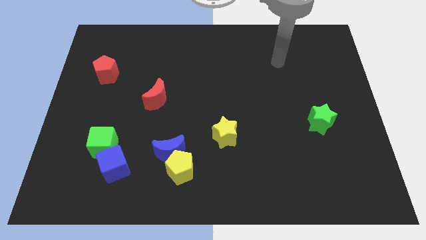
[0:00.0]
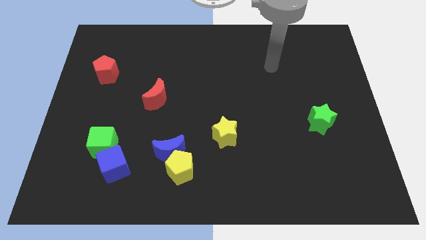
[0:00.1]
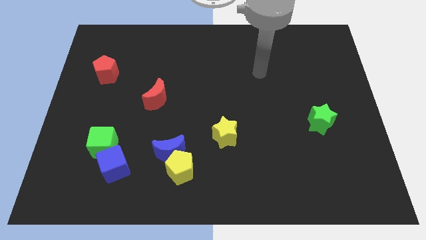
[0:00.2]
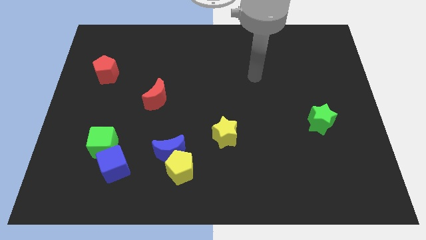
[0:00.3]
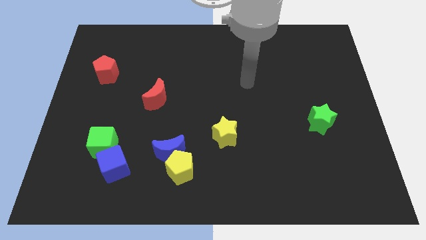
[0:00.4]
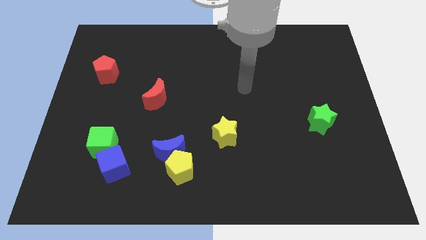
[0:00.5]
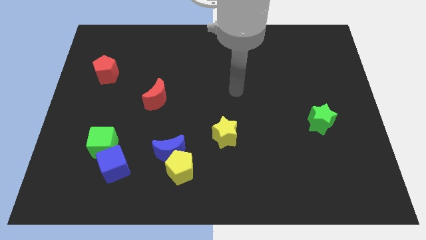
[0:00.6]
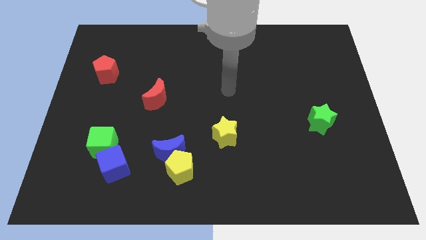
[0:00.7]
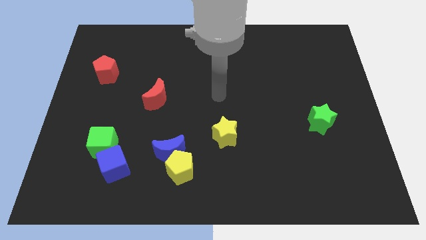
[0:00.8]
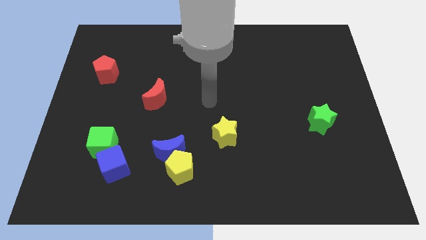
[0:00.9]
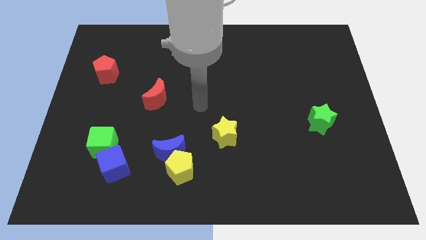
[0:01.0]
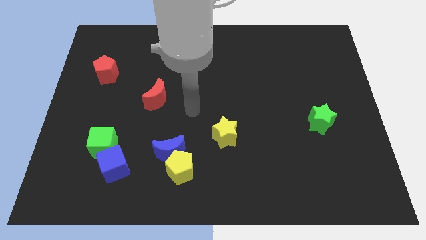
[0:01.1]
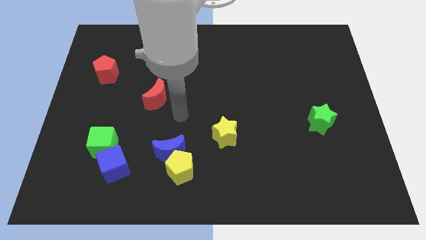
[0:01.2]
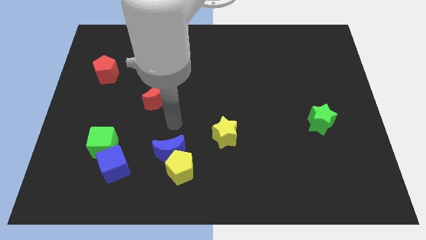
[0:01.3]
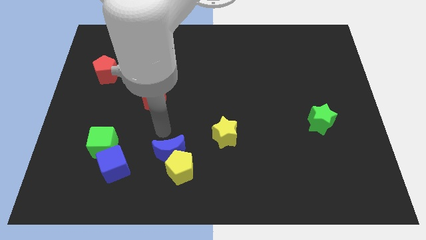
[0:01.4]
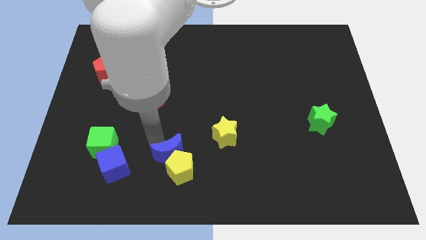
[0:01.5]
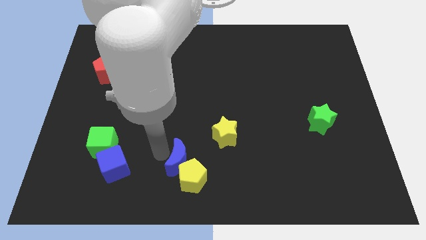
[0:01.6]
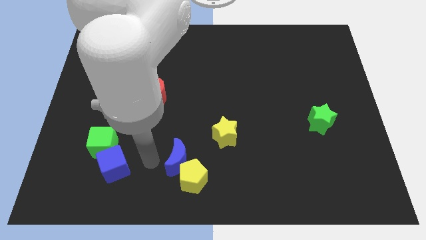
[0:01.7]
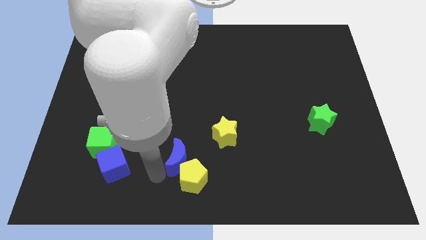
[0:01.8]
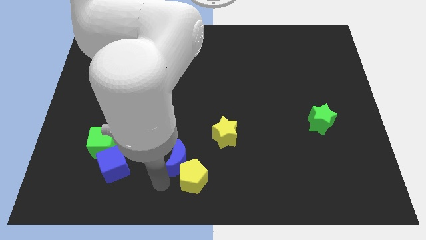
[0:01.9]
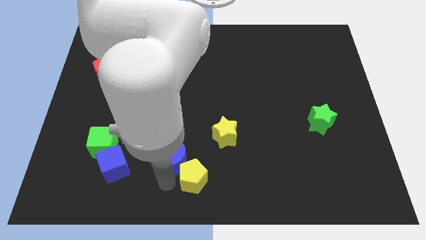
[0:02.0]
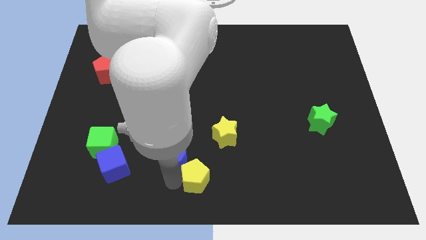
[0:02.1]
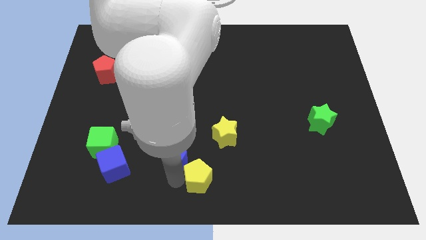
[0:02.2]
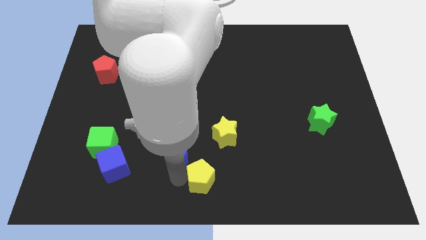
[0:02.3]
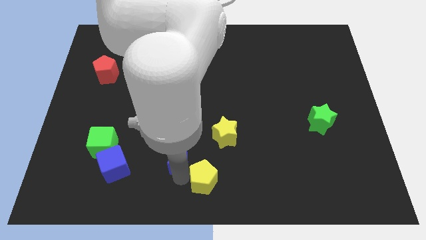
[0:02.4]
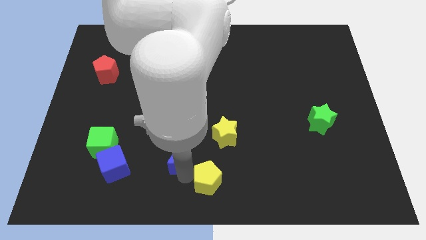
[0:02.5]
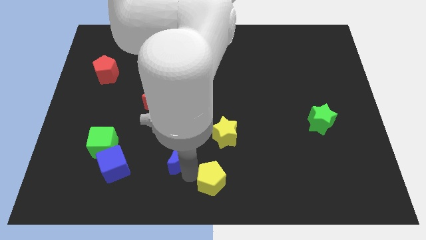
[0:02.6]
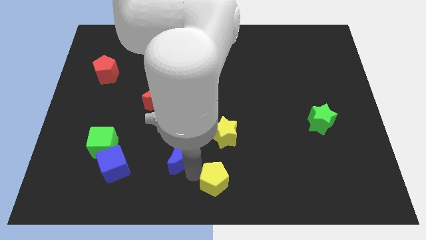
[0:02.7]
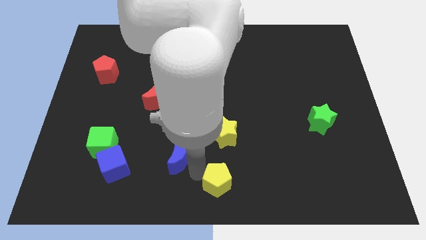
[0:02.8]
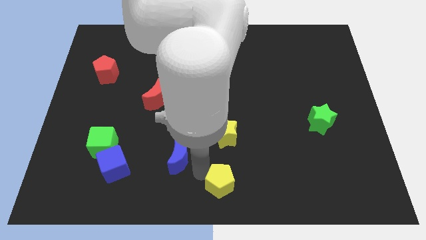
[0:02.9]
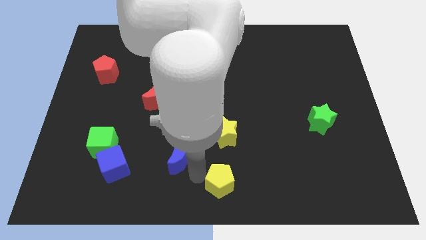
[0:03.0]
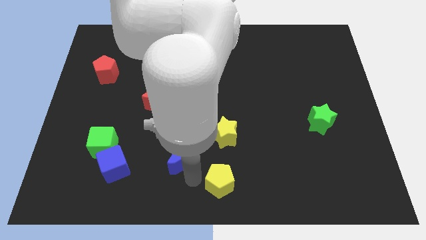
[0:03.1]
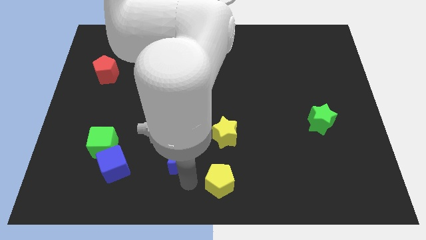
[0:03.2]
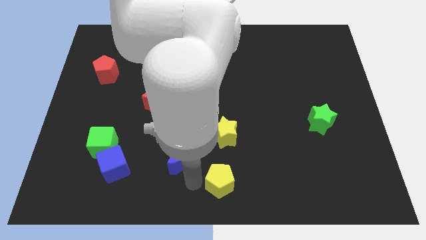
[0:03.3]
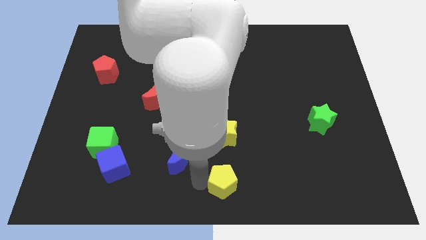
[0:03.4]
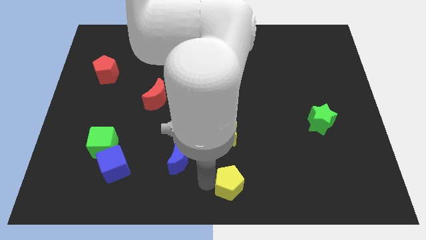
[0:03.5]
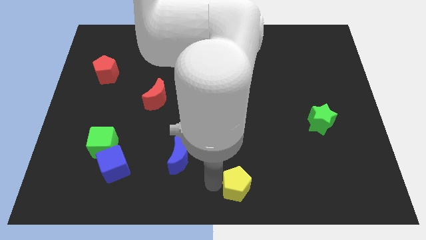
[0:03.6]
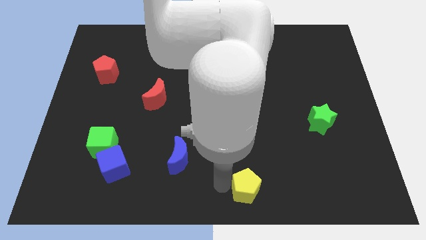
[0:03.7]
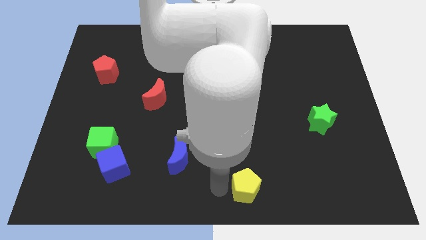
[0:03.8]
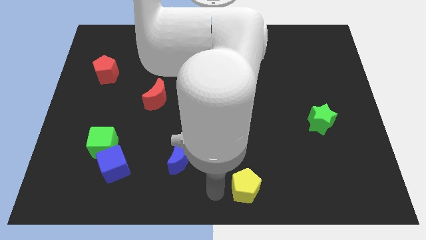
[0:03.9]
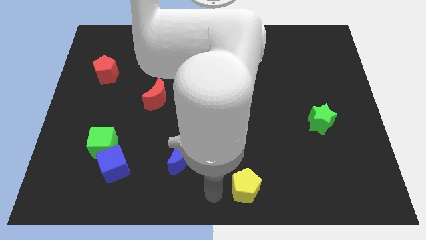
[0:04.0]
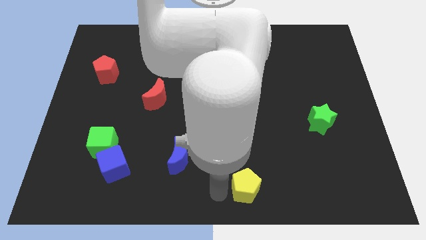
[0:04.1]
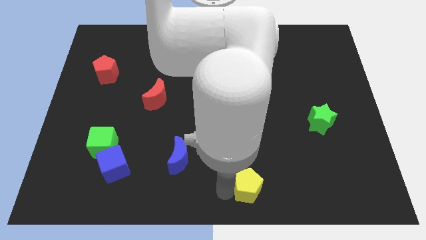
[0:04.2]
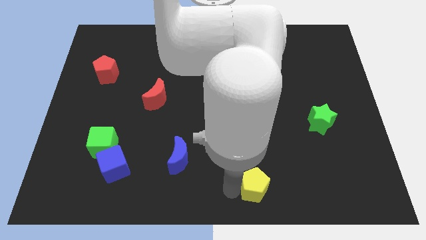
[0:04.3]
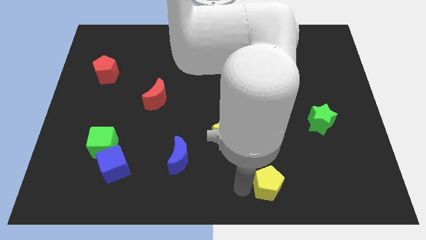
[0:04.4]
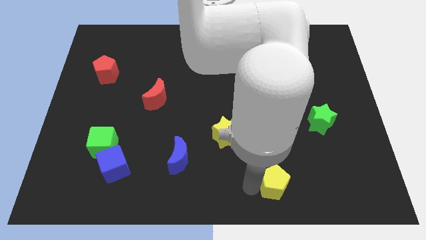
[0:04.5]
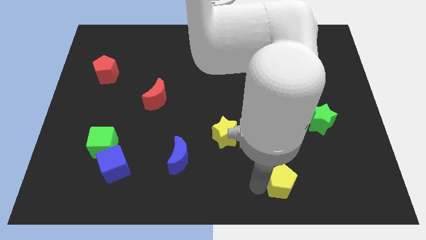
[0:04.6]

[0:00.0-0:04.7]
push the yellow pentagon right

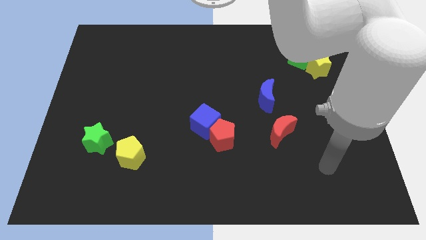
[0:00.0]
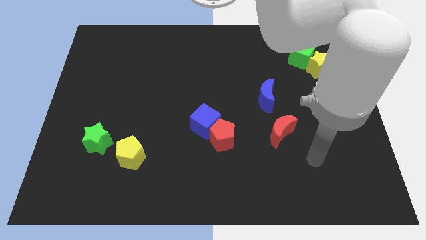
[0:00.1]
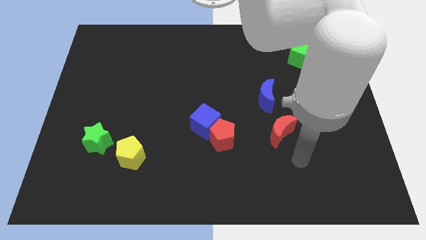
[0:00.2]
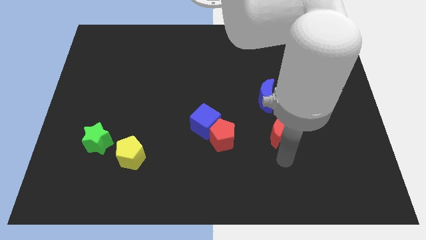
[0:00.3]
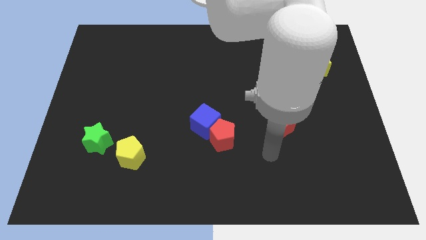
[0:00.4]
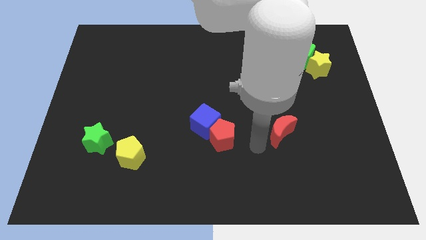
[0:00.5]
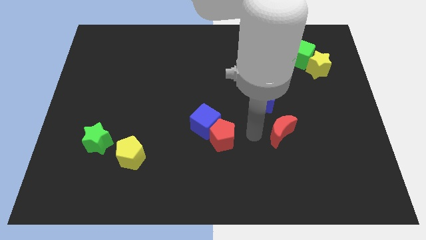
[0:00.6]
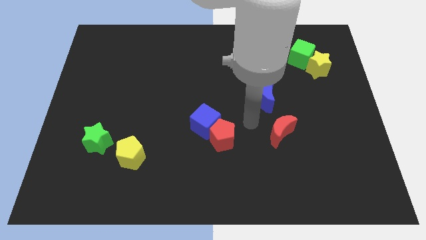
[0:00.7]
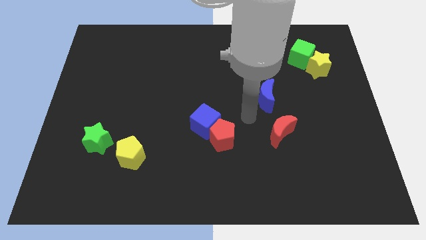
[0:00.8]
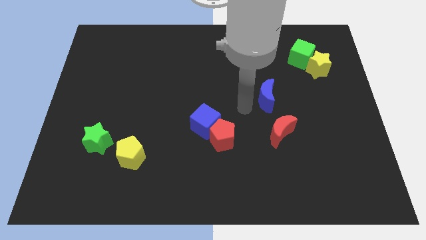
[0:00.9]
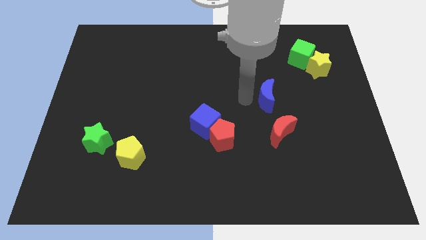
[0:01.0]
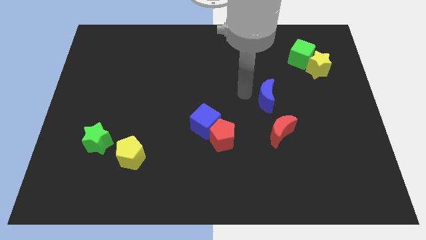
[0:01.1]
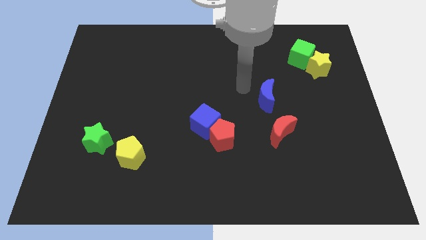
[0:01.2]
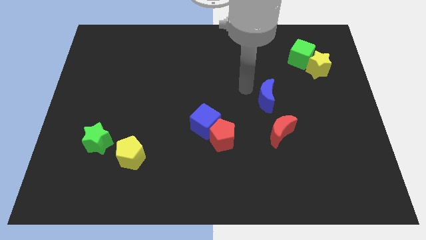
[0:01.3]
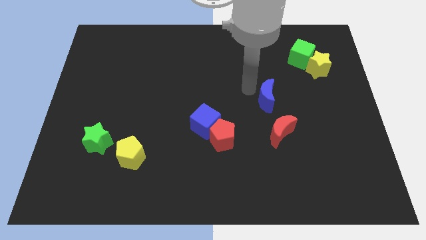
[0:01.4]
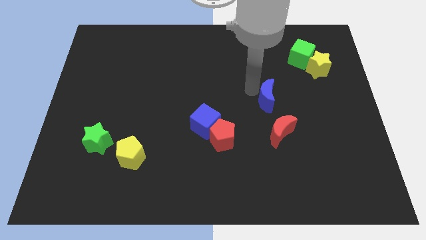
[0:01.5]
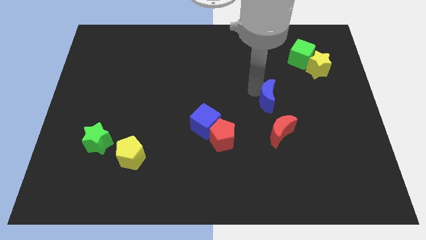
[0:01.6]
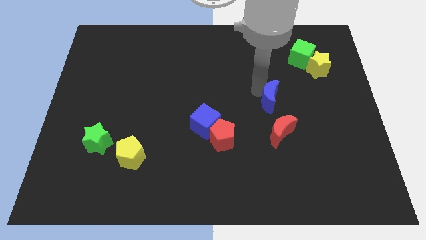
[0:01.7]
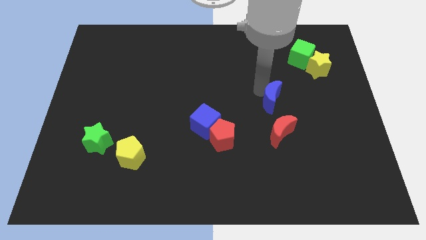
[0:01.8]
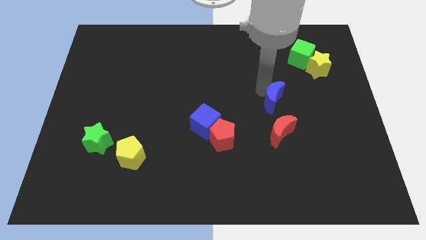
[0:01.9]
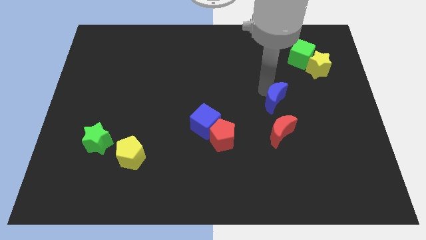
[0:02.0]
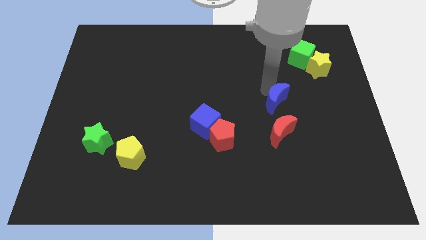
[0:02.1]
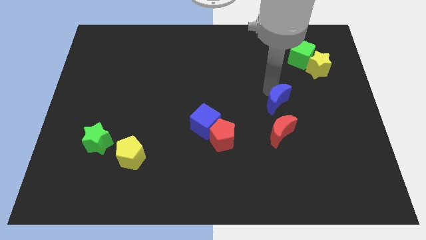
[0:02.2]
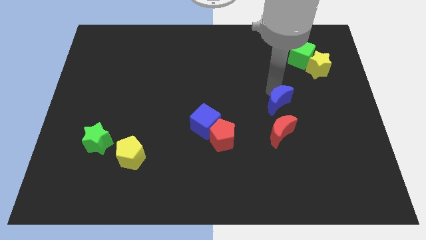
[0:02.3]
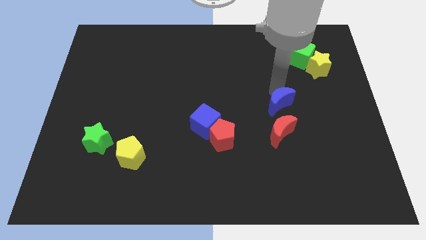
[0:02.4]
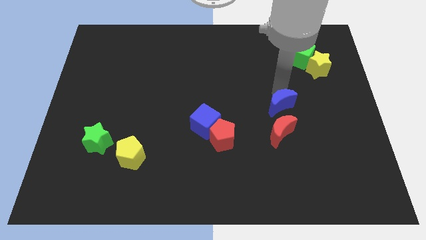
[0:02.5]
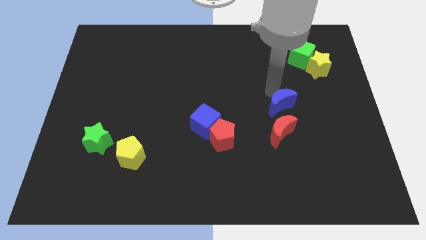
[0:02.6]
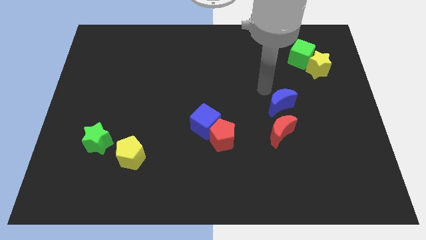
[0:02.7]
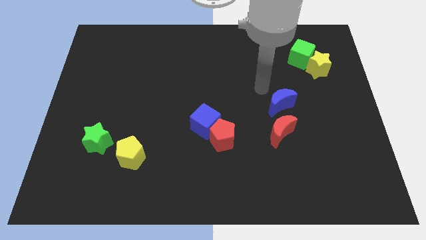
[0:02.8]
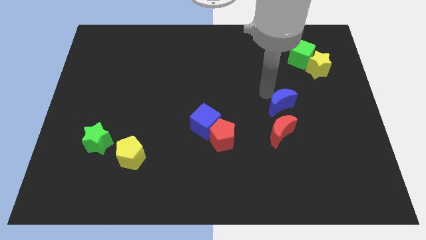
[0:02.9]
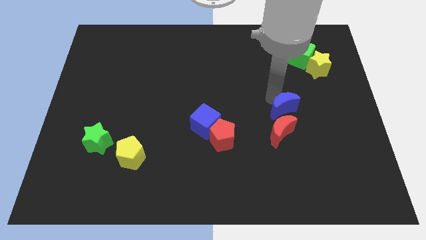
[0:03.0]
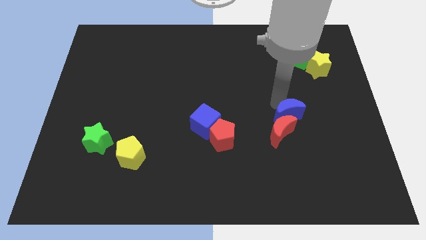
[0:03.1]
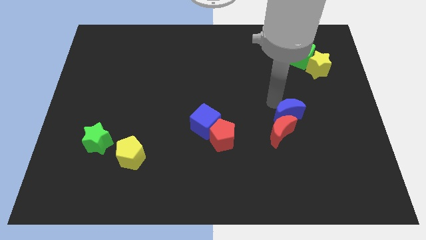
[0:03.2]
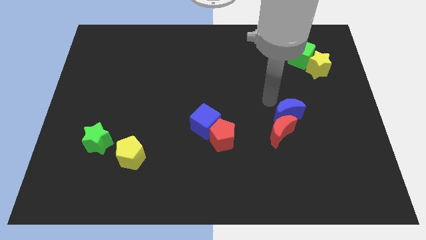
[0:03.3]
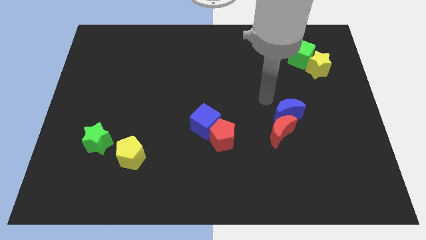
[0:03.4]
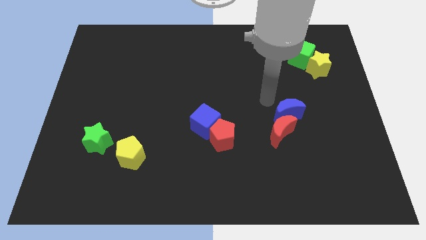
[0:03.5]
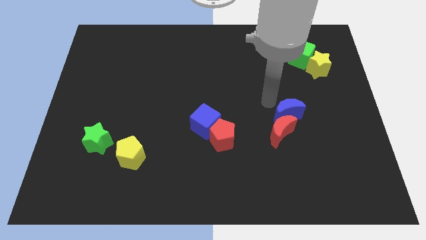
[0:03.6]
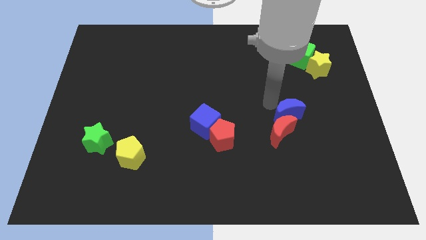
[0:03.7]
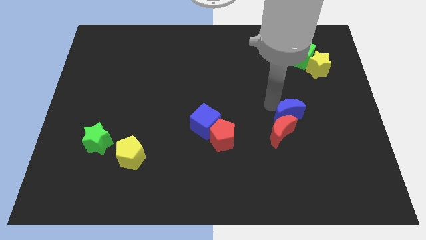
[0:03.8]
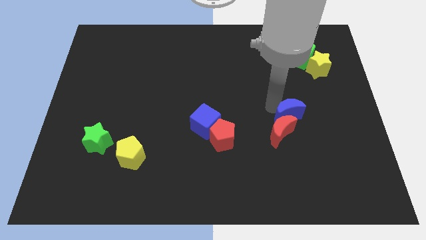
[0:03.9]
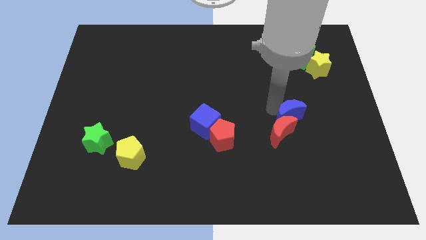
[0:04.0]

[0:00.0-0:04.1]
slide the blue moon a bit down and right
